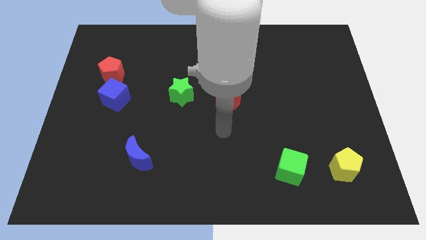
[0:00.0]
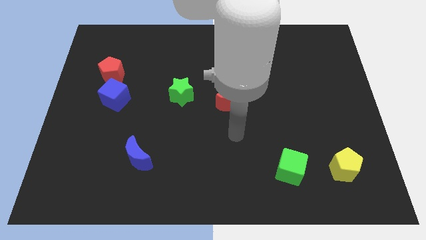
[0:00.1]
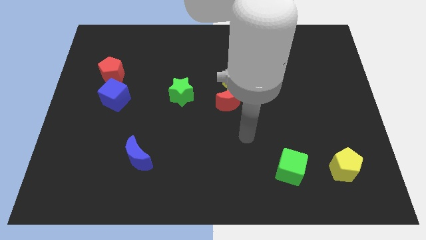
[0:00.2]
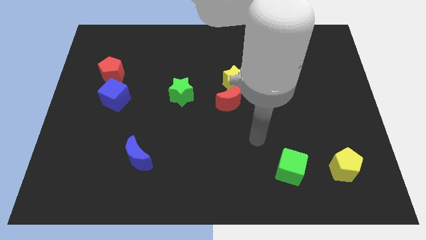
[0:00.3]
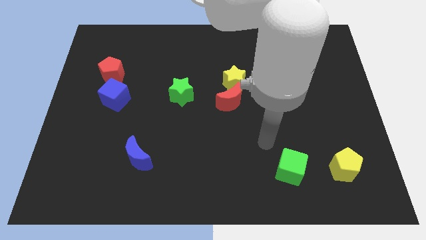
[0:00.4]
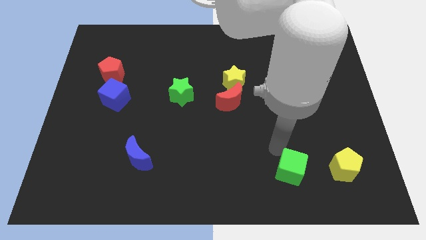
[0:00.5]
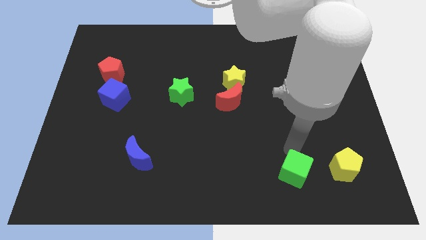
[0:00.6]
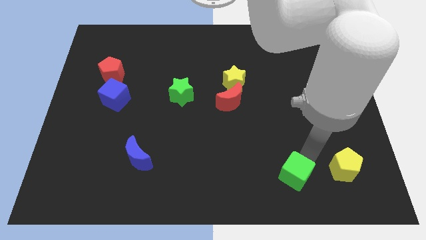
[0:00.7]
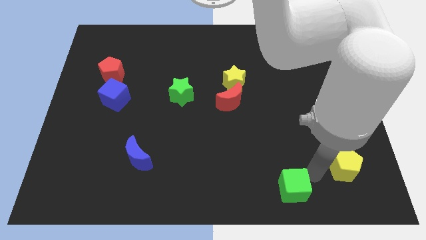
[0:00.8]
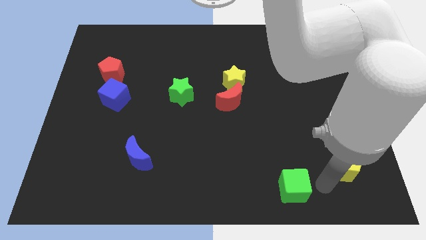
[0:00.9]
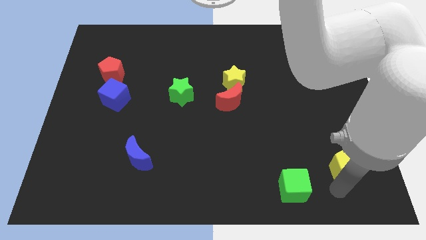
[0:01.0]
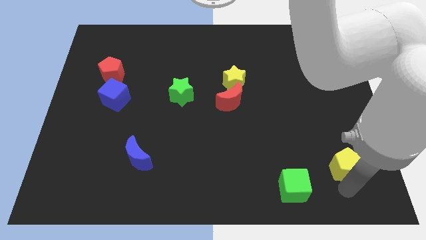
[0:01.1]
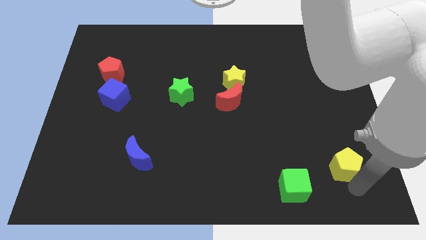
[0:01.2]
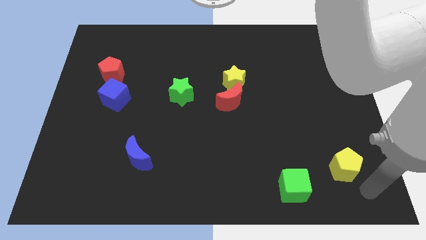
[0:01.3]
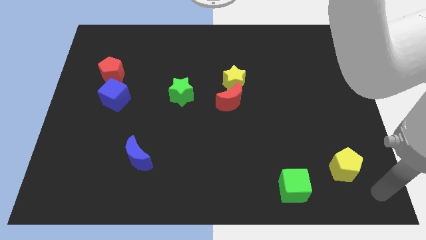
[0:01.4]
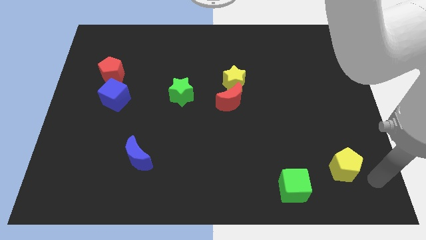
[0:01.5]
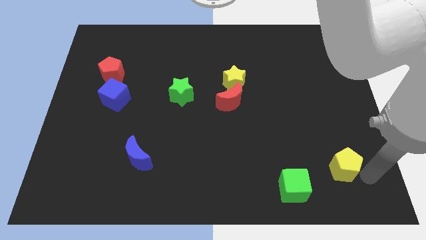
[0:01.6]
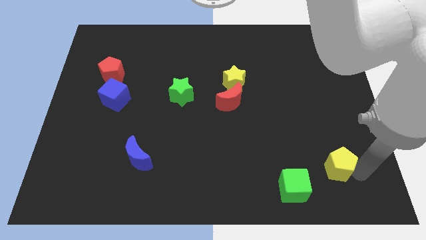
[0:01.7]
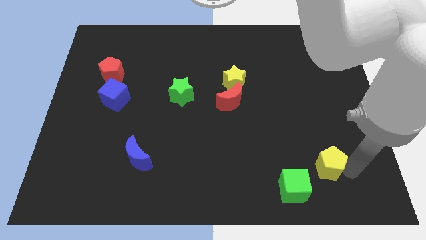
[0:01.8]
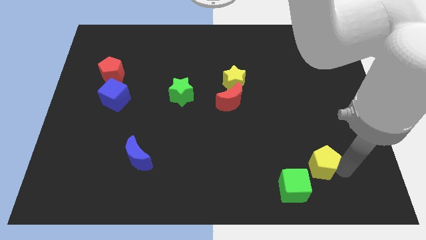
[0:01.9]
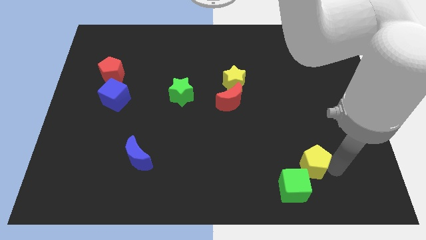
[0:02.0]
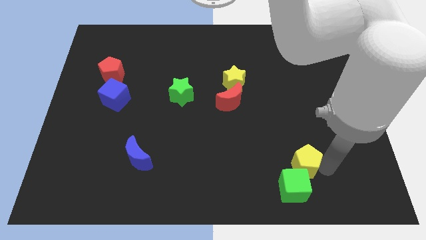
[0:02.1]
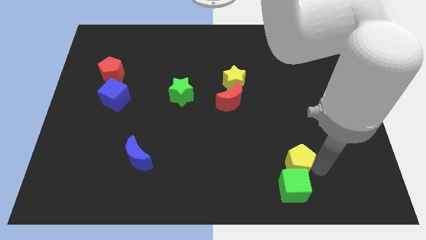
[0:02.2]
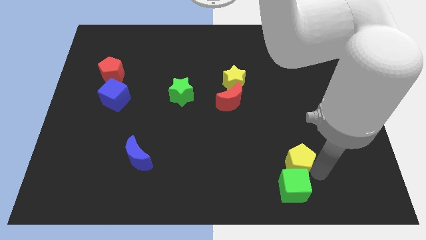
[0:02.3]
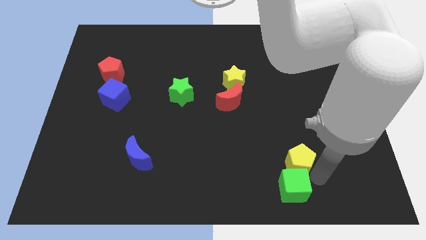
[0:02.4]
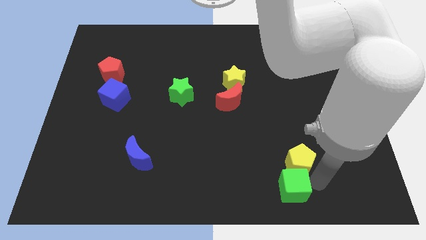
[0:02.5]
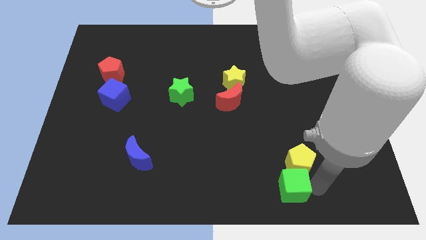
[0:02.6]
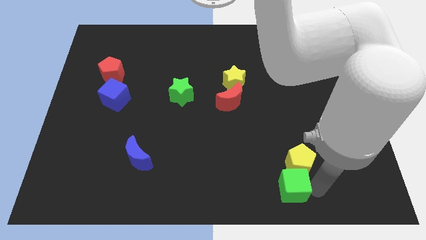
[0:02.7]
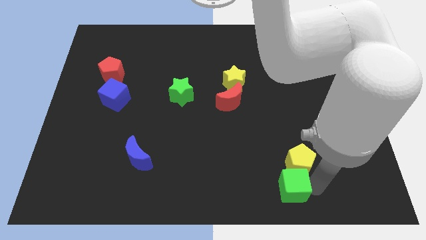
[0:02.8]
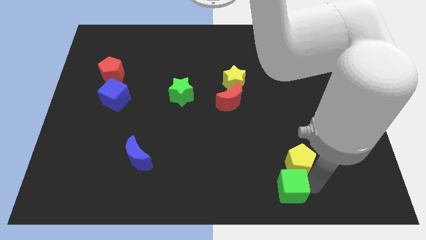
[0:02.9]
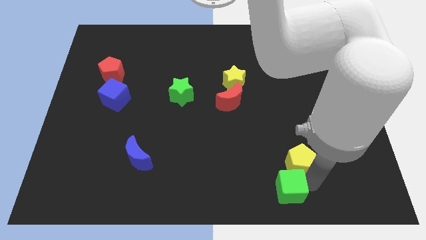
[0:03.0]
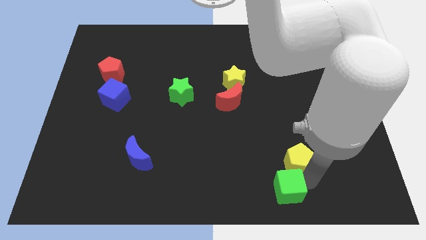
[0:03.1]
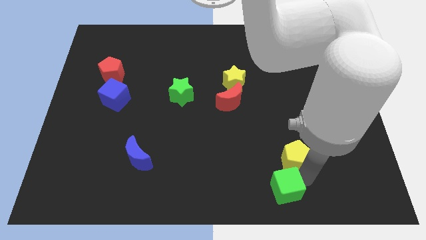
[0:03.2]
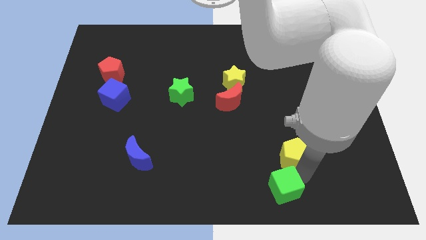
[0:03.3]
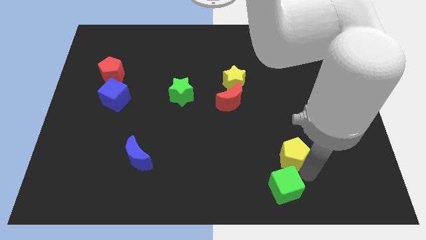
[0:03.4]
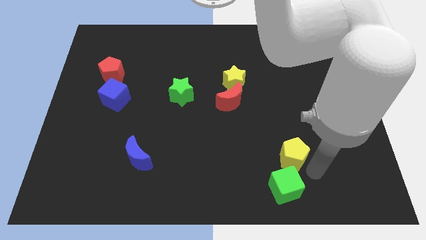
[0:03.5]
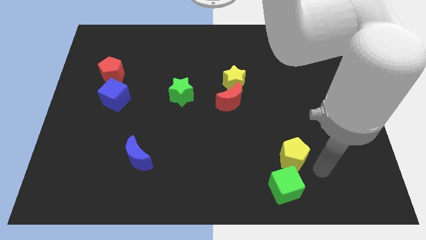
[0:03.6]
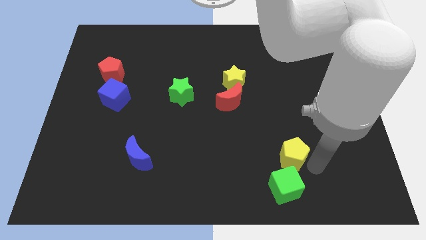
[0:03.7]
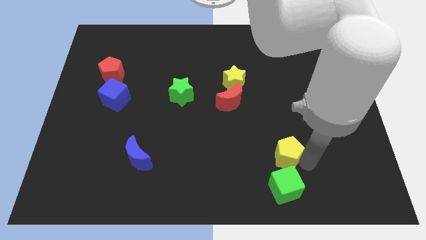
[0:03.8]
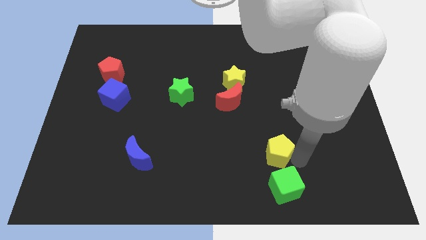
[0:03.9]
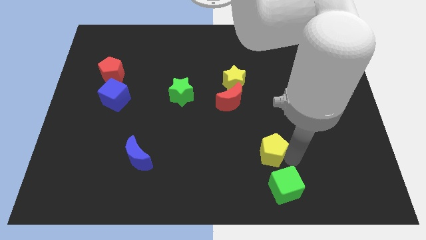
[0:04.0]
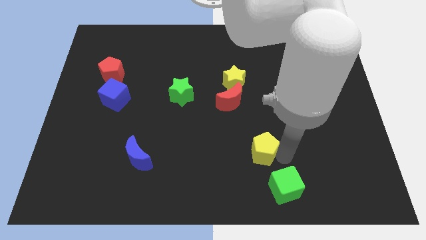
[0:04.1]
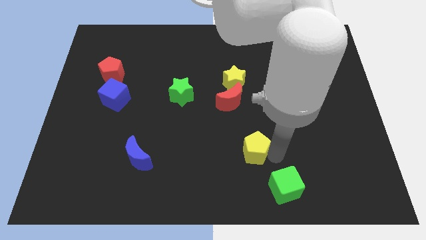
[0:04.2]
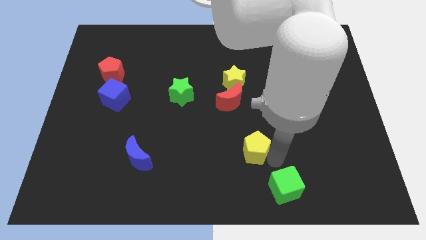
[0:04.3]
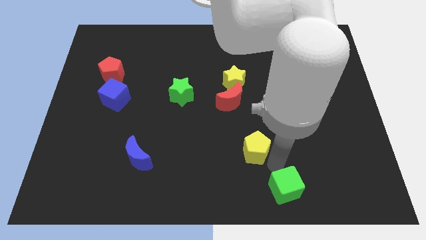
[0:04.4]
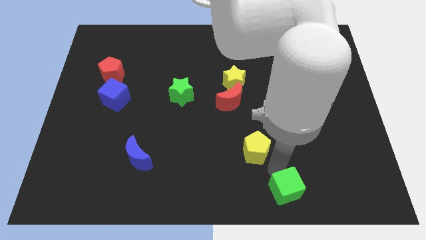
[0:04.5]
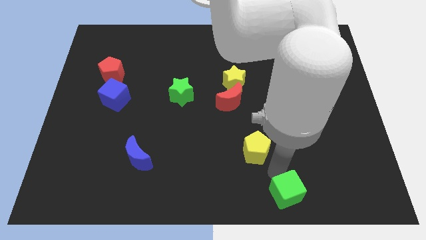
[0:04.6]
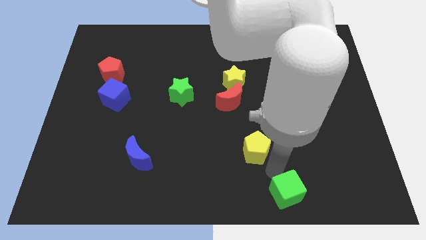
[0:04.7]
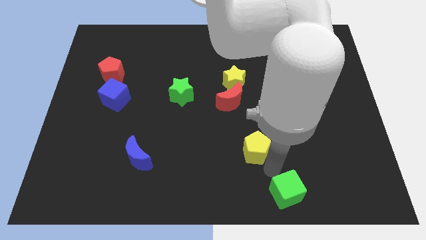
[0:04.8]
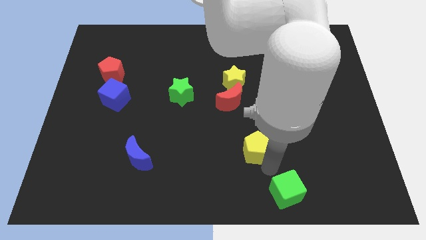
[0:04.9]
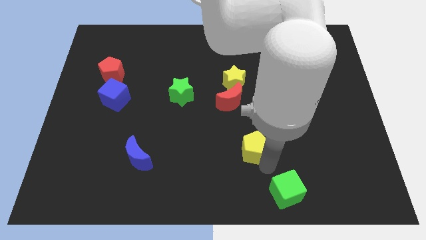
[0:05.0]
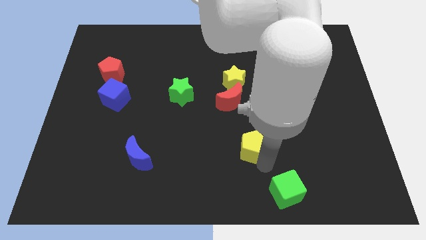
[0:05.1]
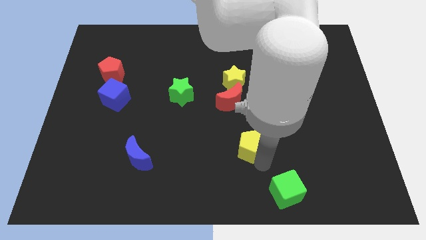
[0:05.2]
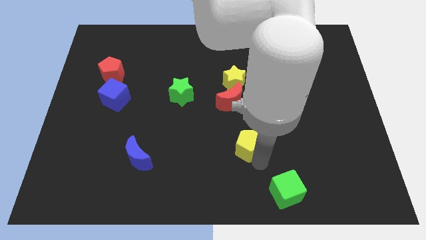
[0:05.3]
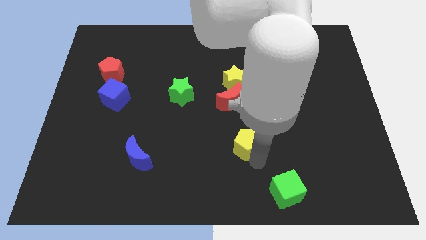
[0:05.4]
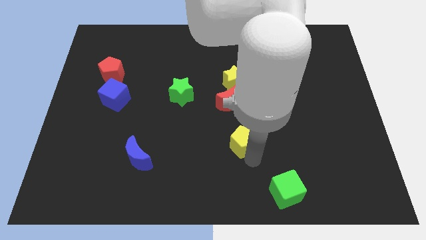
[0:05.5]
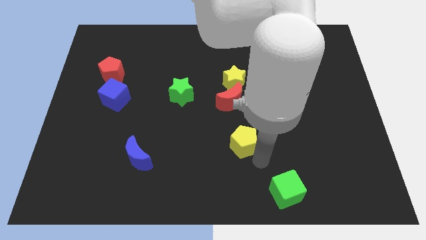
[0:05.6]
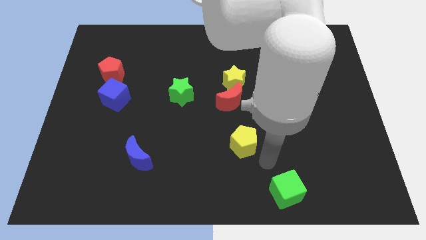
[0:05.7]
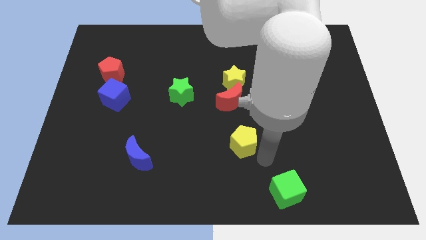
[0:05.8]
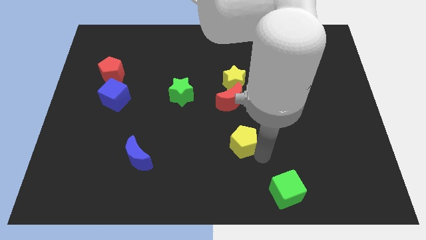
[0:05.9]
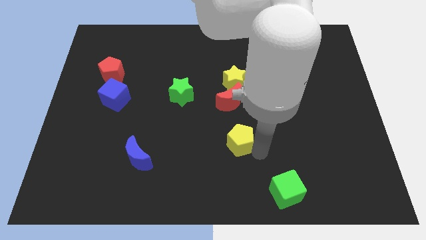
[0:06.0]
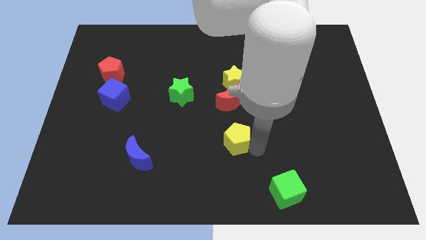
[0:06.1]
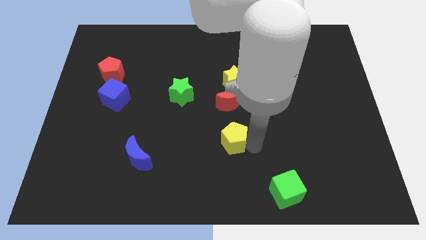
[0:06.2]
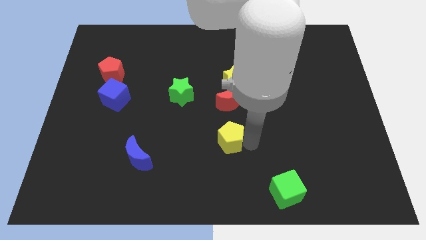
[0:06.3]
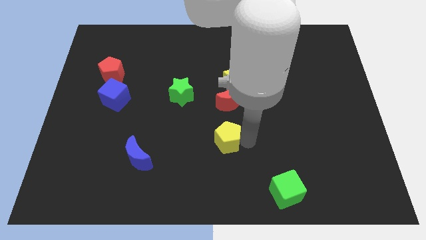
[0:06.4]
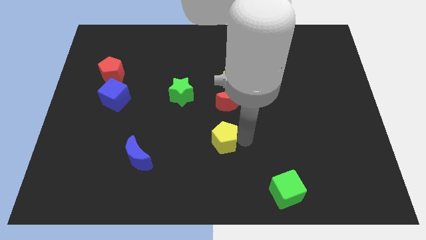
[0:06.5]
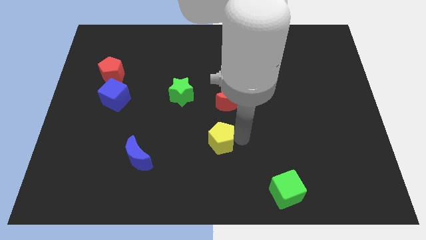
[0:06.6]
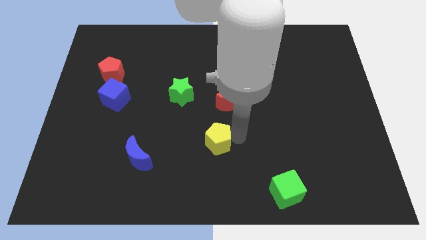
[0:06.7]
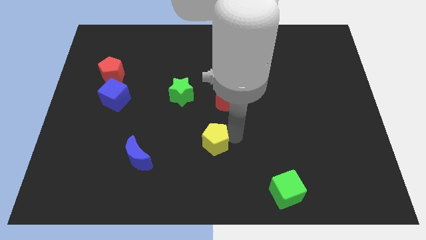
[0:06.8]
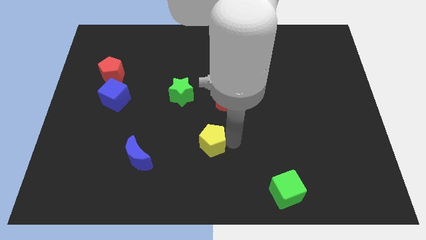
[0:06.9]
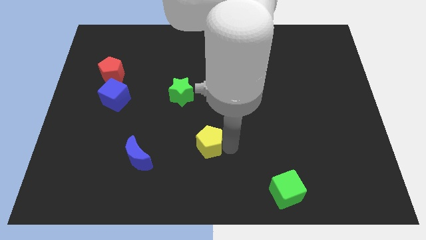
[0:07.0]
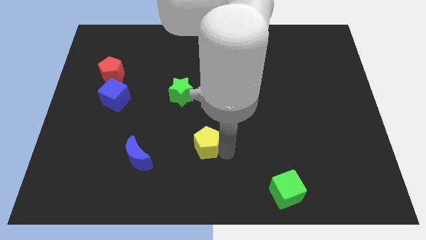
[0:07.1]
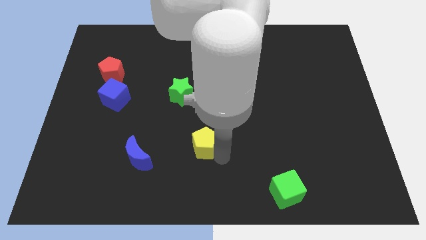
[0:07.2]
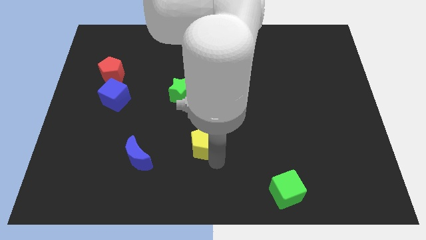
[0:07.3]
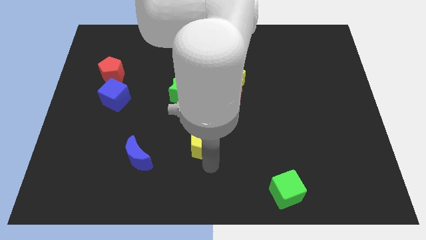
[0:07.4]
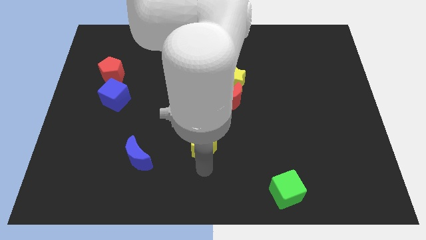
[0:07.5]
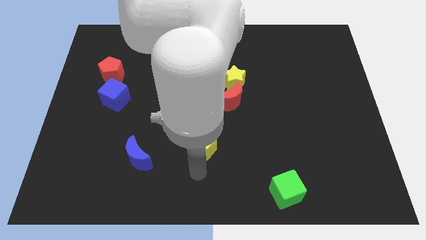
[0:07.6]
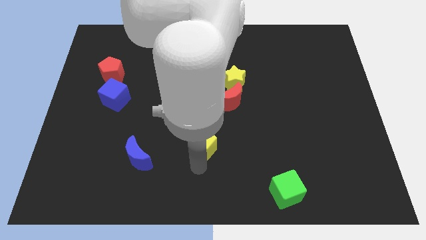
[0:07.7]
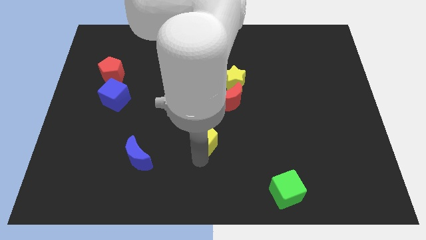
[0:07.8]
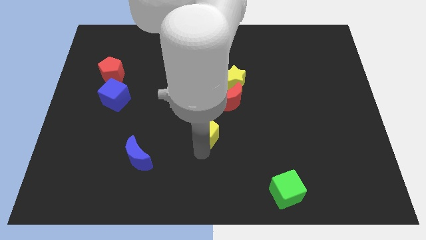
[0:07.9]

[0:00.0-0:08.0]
put the yellow pentagon to the bottom left side of the red moon

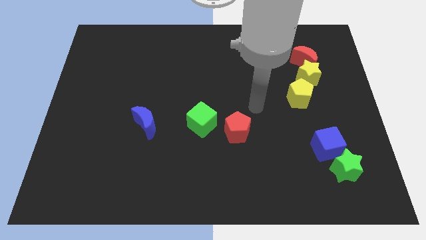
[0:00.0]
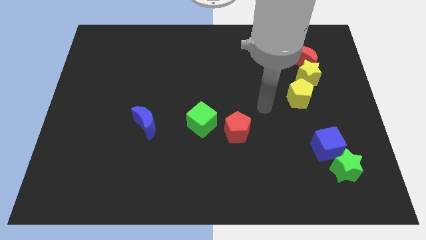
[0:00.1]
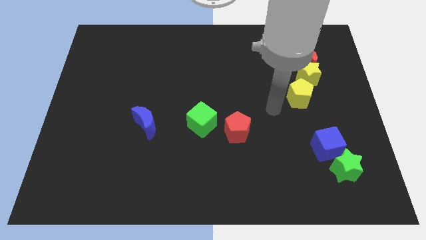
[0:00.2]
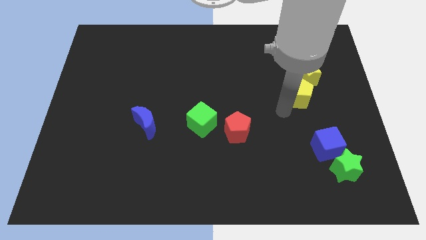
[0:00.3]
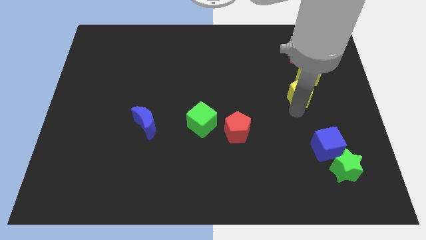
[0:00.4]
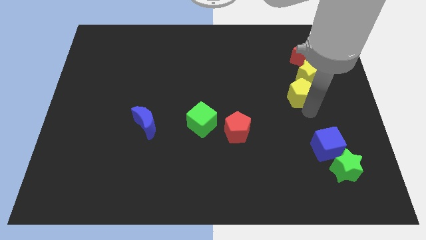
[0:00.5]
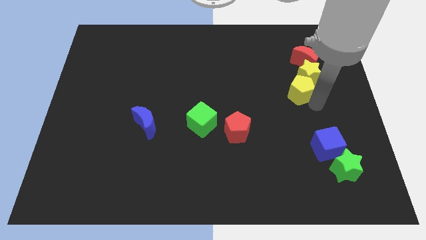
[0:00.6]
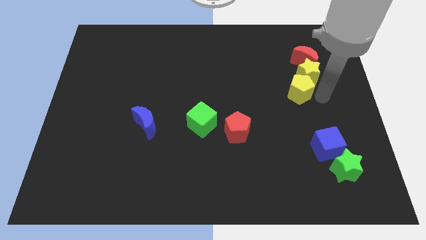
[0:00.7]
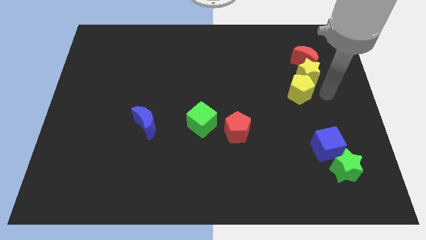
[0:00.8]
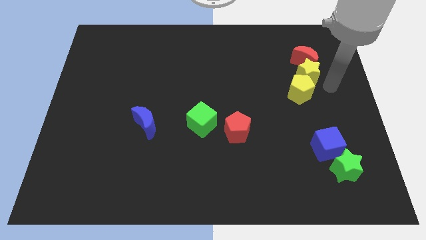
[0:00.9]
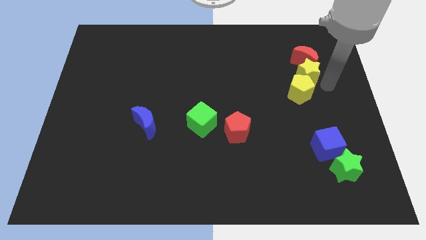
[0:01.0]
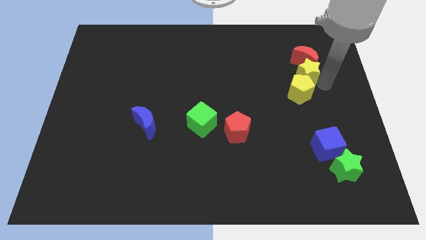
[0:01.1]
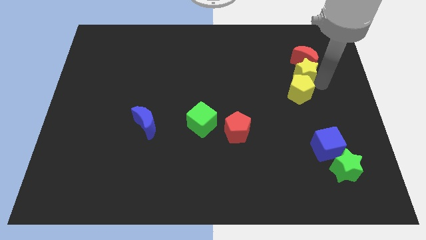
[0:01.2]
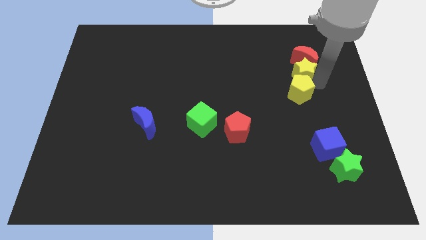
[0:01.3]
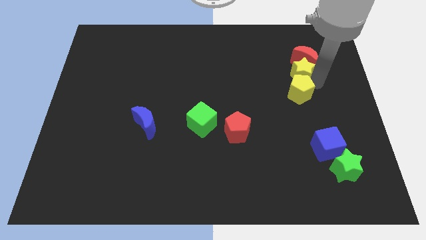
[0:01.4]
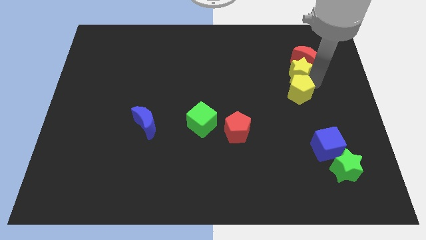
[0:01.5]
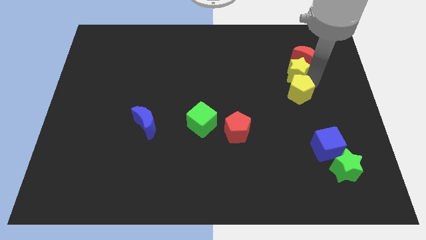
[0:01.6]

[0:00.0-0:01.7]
slide the yellow star just left of the red moon
